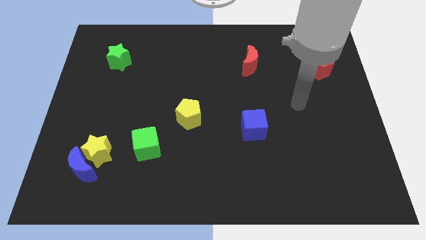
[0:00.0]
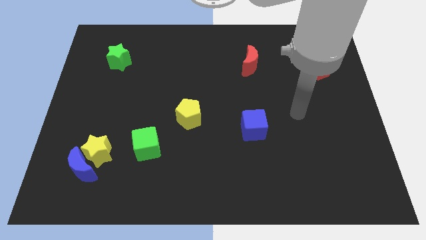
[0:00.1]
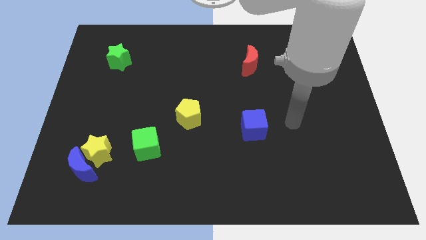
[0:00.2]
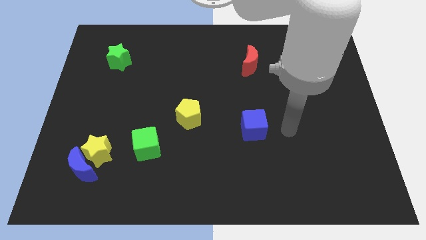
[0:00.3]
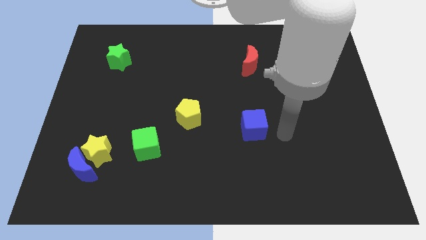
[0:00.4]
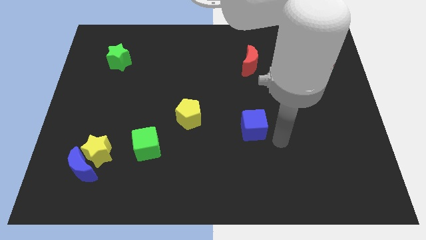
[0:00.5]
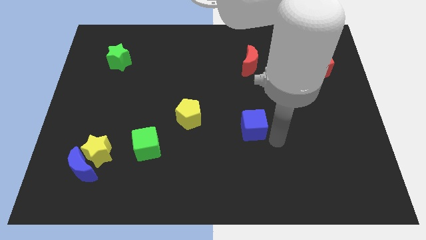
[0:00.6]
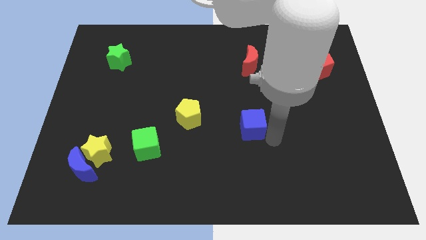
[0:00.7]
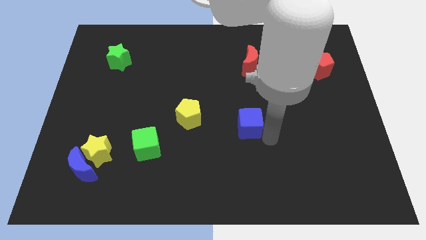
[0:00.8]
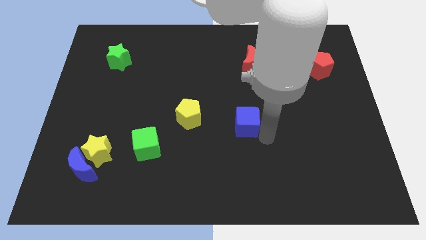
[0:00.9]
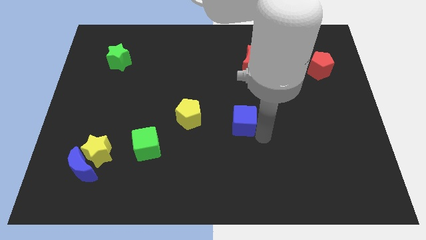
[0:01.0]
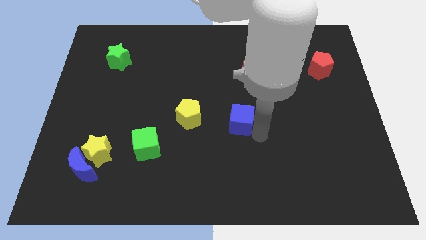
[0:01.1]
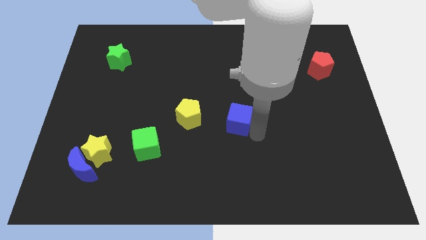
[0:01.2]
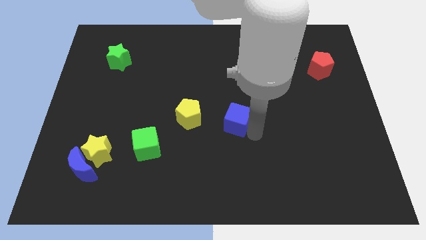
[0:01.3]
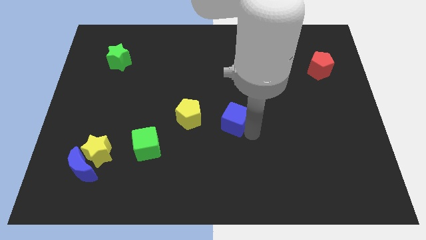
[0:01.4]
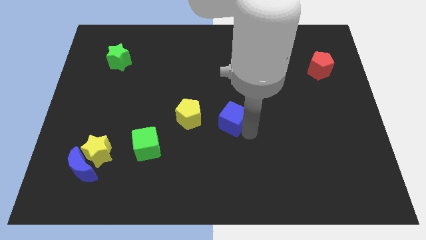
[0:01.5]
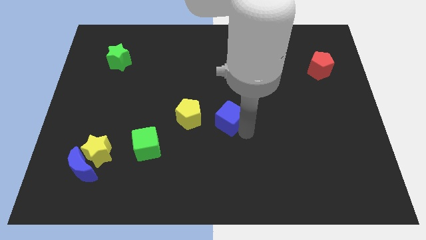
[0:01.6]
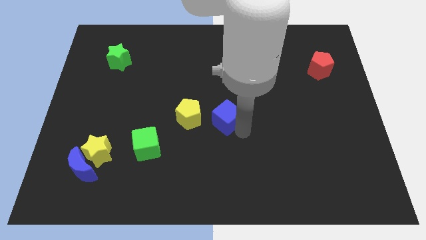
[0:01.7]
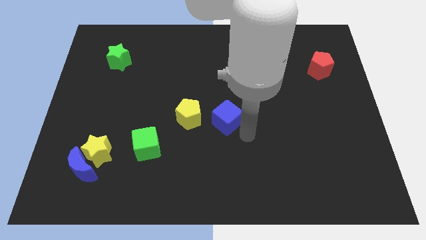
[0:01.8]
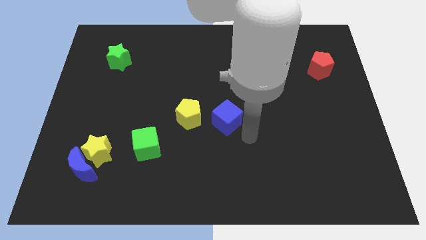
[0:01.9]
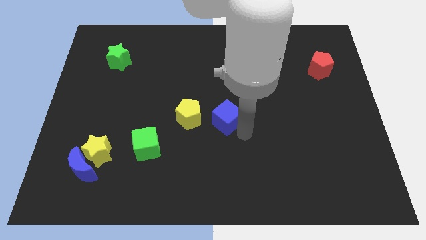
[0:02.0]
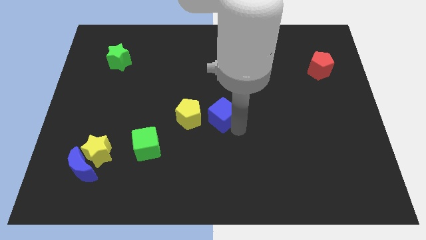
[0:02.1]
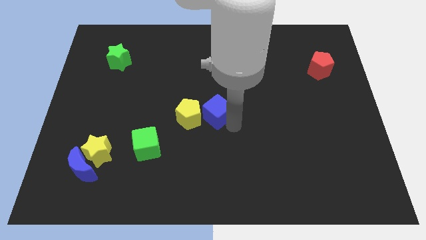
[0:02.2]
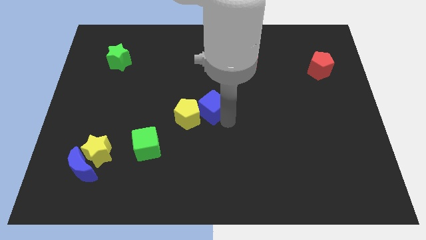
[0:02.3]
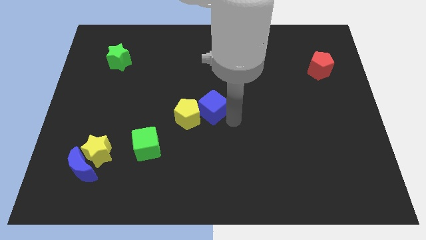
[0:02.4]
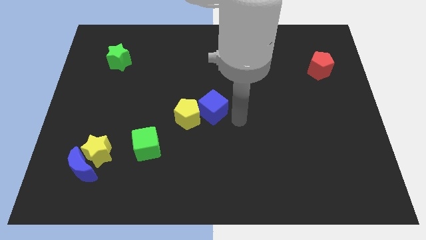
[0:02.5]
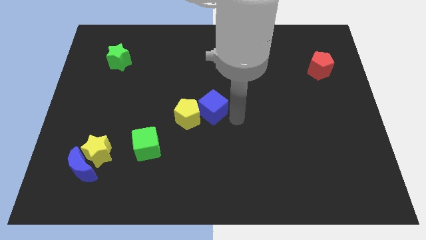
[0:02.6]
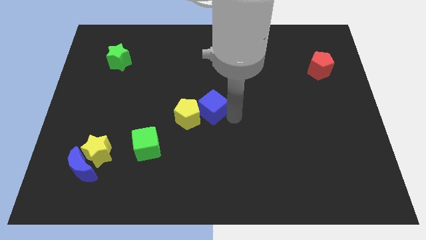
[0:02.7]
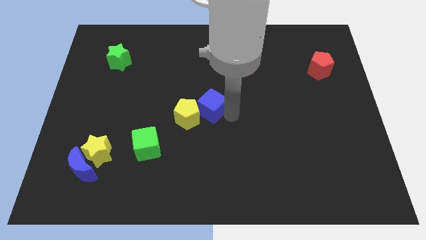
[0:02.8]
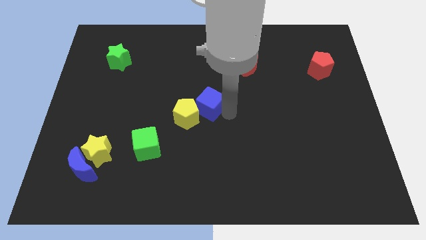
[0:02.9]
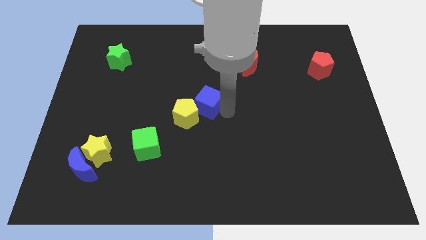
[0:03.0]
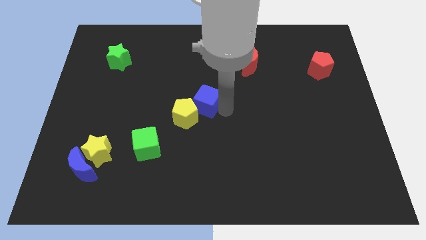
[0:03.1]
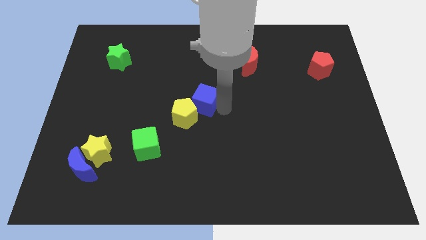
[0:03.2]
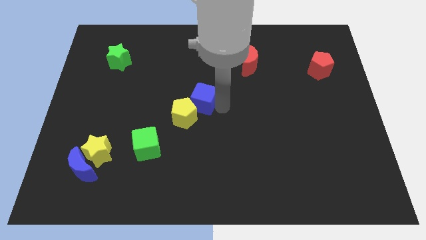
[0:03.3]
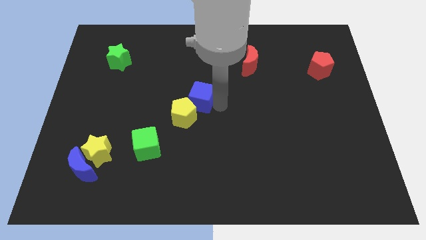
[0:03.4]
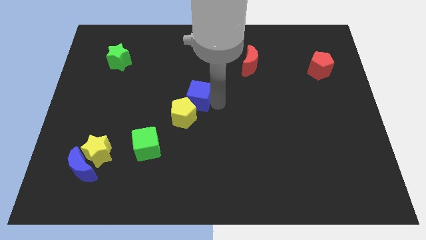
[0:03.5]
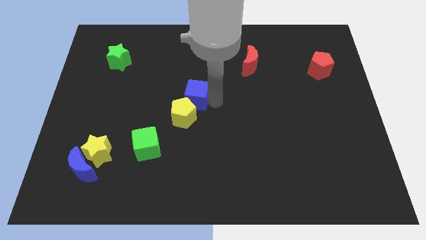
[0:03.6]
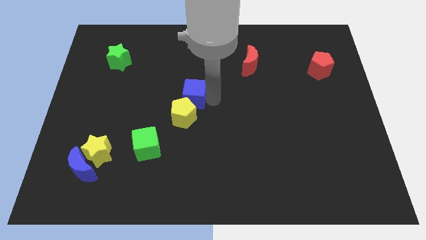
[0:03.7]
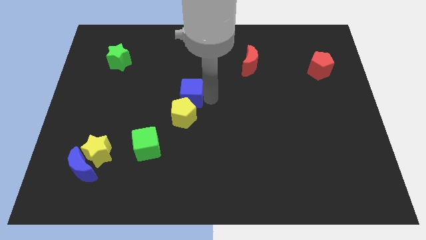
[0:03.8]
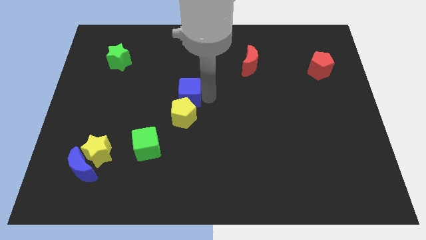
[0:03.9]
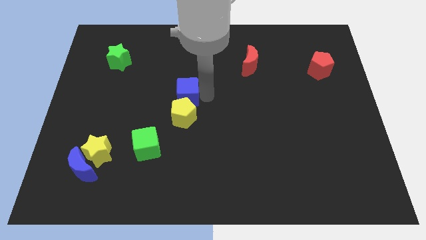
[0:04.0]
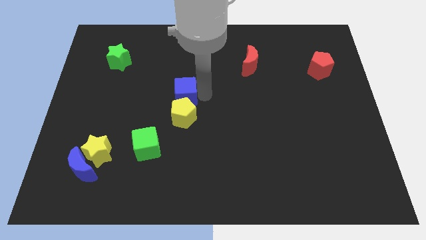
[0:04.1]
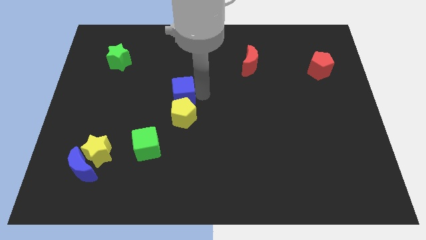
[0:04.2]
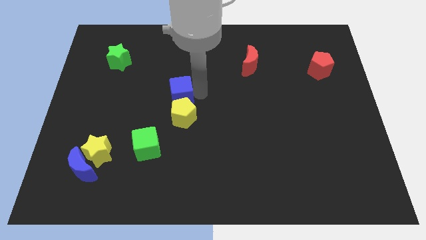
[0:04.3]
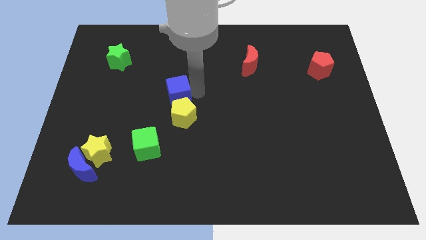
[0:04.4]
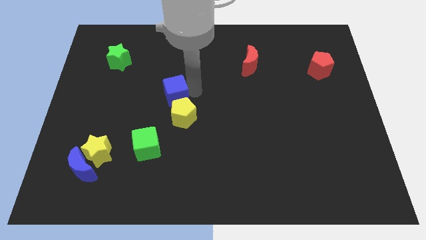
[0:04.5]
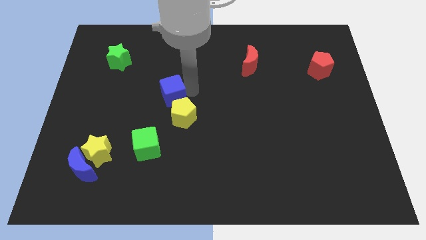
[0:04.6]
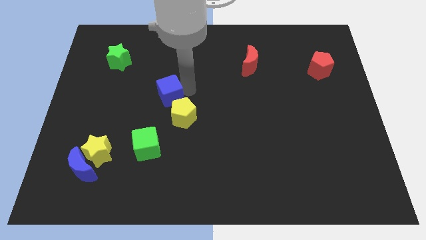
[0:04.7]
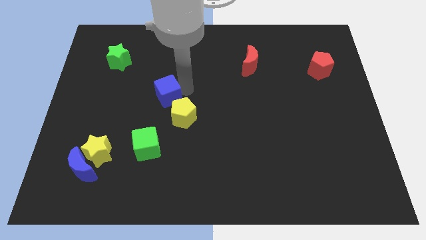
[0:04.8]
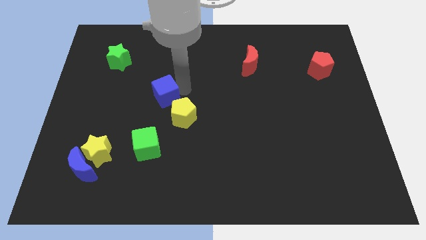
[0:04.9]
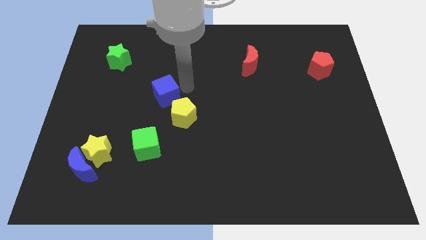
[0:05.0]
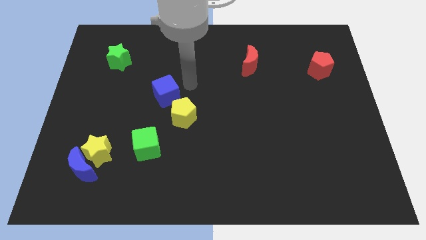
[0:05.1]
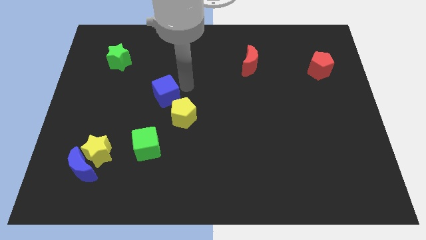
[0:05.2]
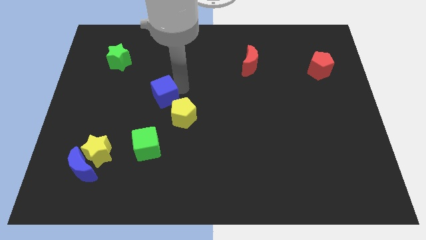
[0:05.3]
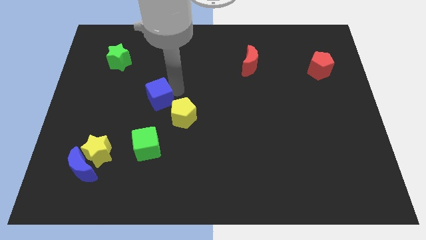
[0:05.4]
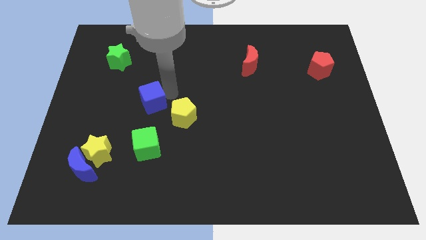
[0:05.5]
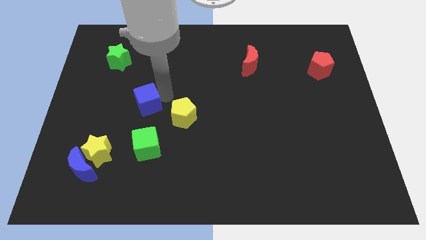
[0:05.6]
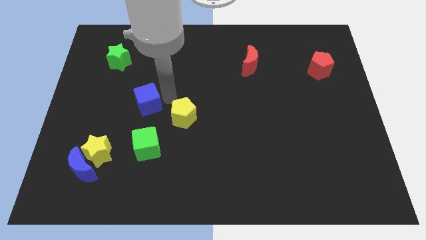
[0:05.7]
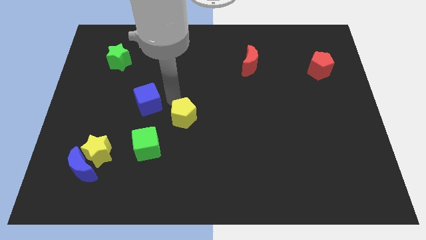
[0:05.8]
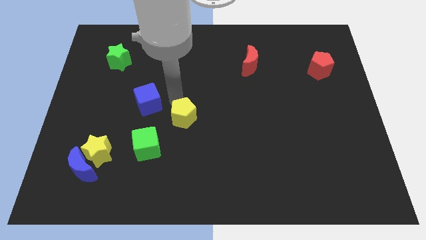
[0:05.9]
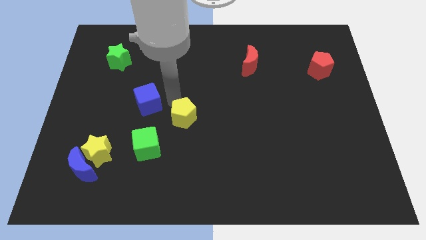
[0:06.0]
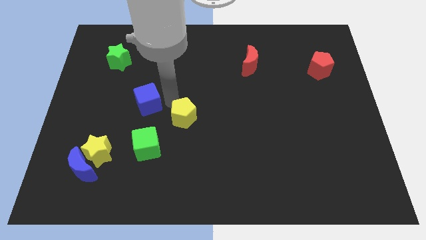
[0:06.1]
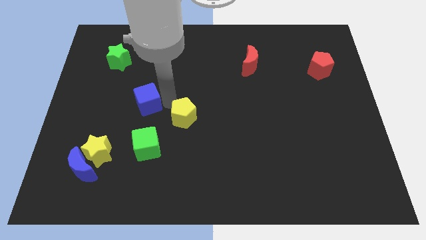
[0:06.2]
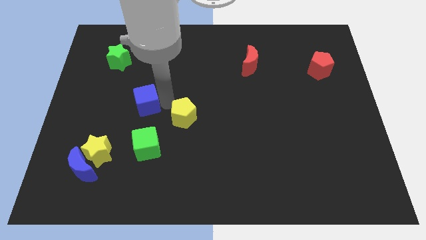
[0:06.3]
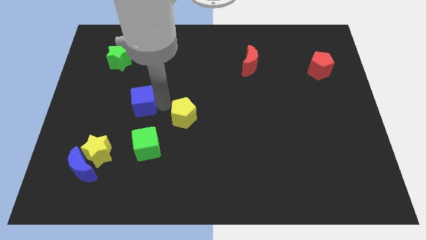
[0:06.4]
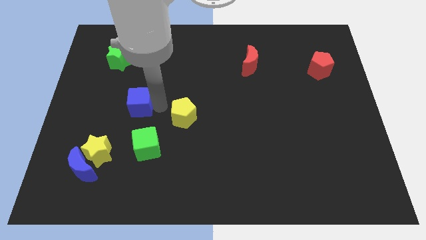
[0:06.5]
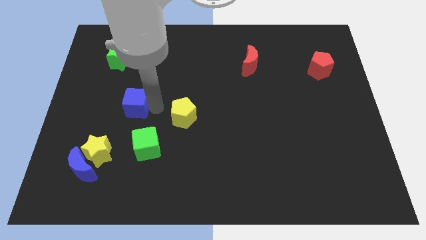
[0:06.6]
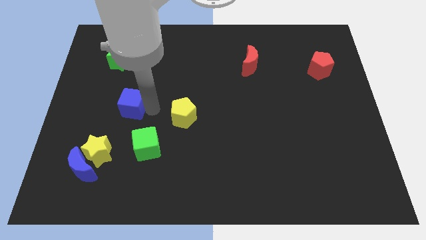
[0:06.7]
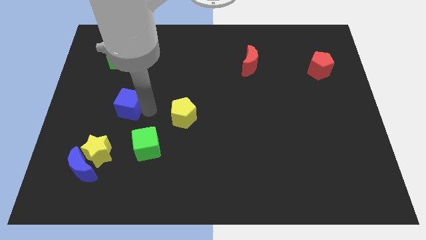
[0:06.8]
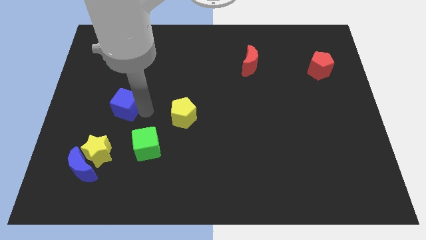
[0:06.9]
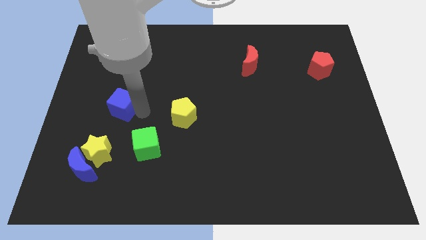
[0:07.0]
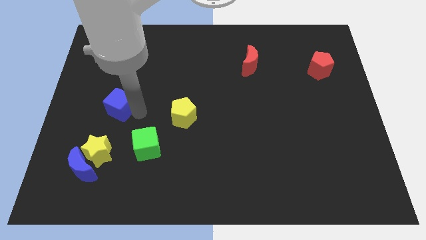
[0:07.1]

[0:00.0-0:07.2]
push the blue cube below the green star
